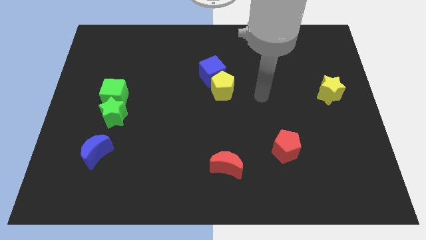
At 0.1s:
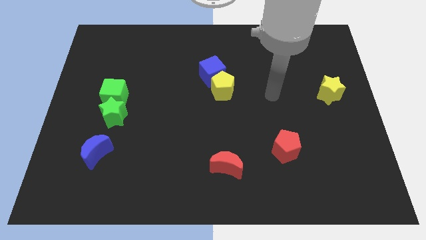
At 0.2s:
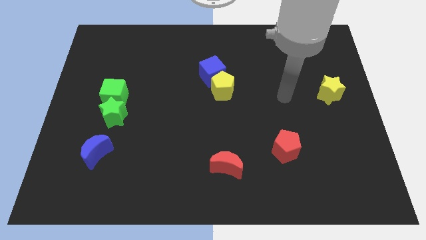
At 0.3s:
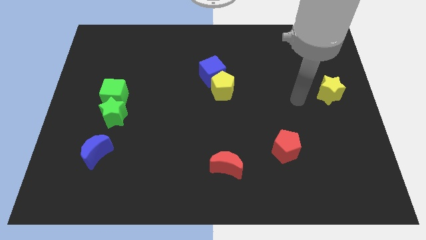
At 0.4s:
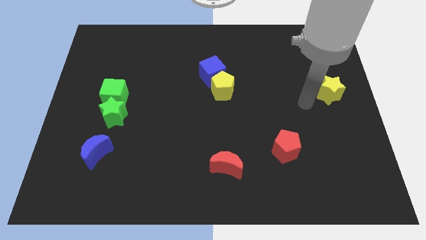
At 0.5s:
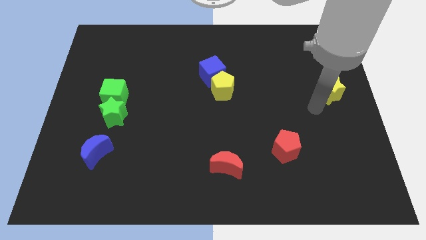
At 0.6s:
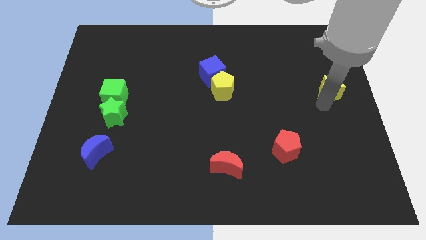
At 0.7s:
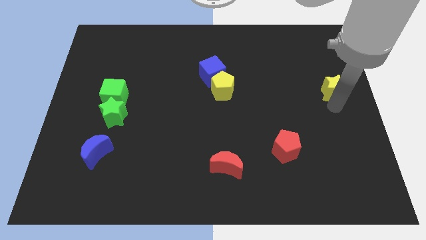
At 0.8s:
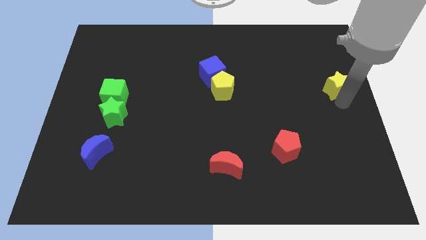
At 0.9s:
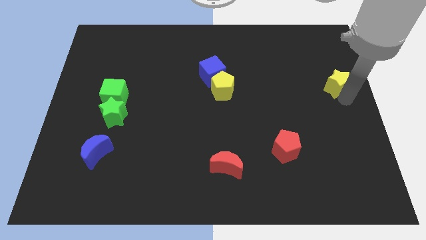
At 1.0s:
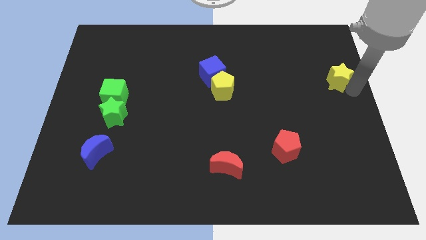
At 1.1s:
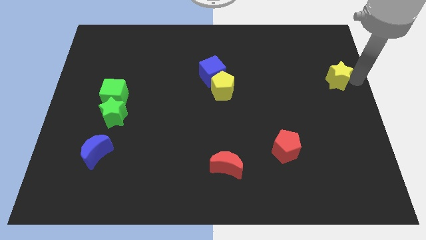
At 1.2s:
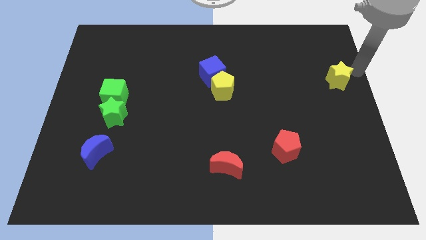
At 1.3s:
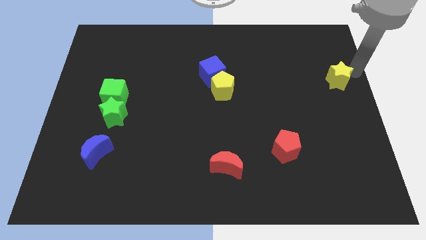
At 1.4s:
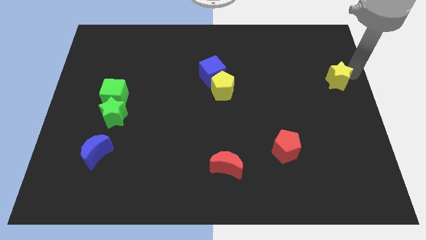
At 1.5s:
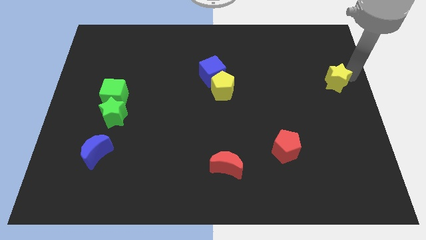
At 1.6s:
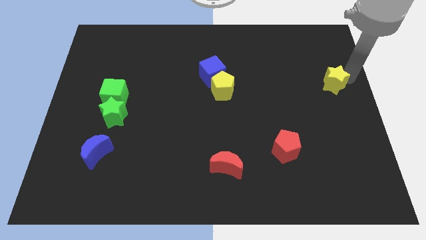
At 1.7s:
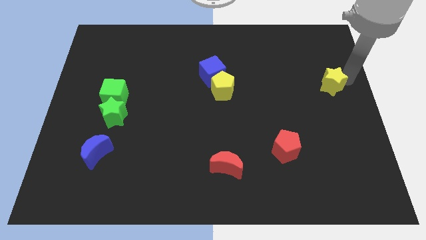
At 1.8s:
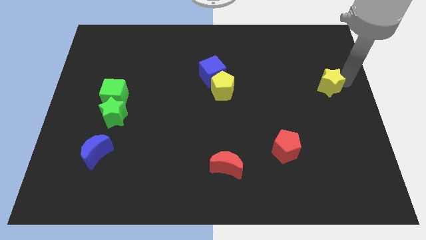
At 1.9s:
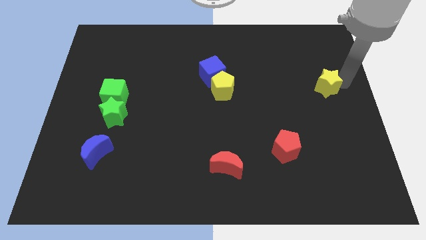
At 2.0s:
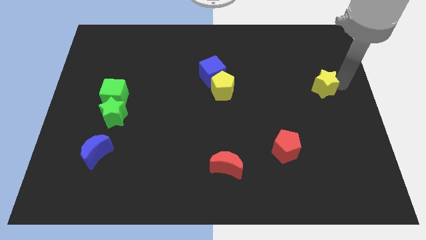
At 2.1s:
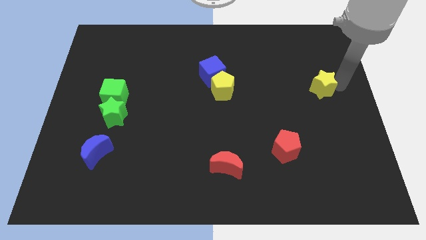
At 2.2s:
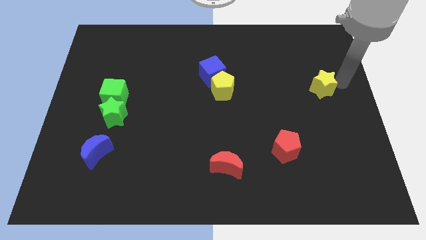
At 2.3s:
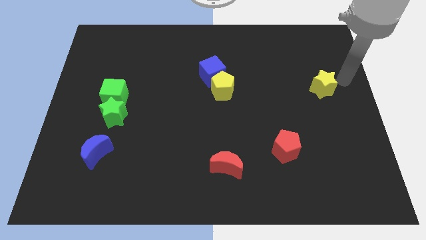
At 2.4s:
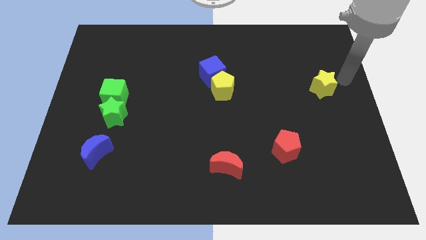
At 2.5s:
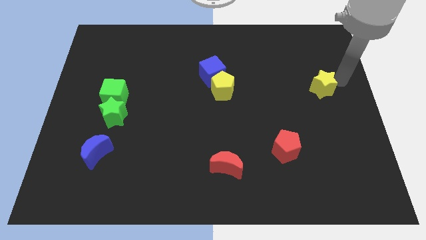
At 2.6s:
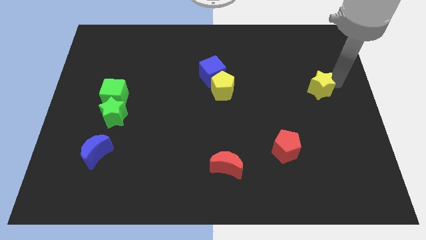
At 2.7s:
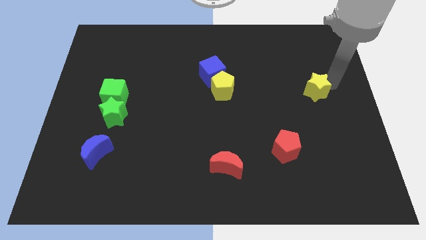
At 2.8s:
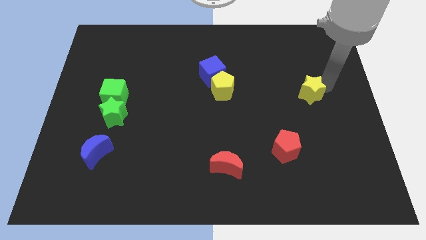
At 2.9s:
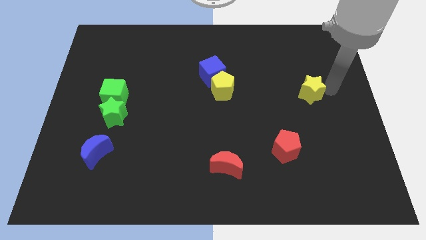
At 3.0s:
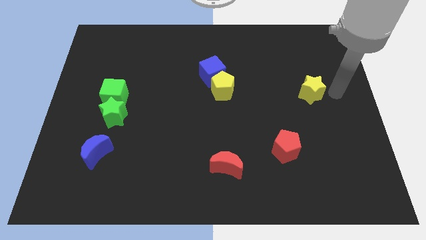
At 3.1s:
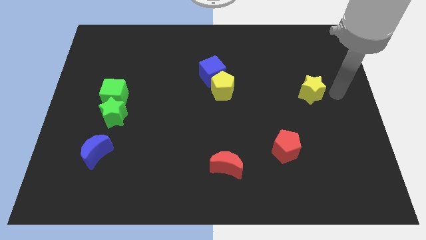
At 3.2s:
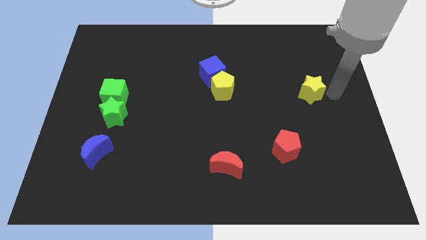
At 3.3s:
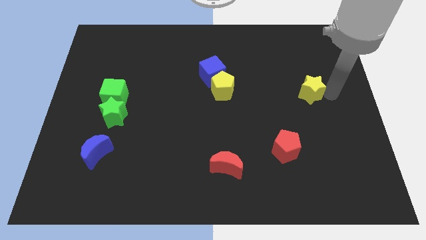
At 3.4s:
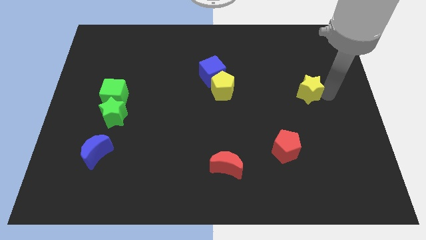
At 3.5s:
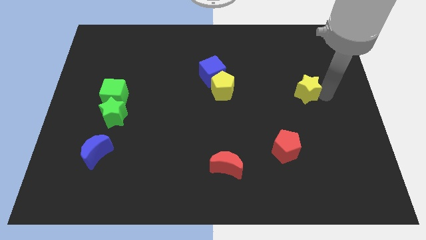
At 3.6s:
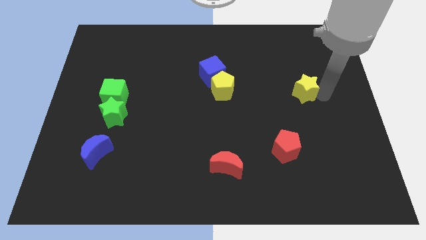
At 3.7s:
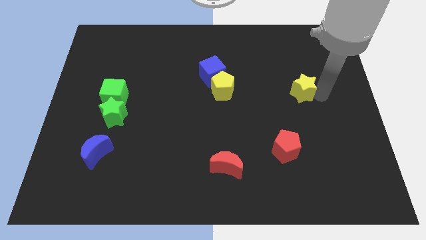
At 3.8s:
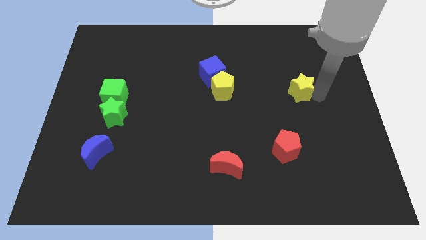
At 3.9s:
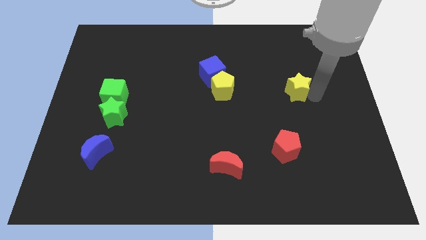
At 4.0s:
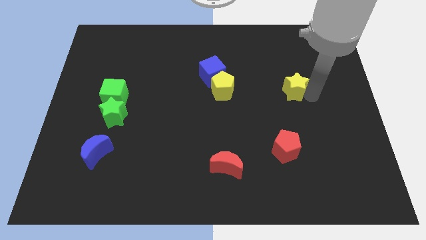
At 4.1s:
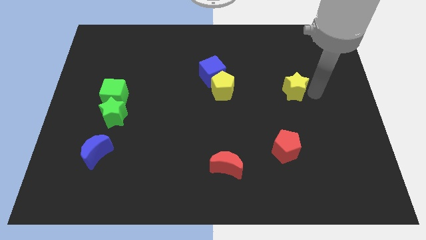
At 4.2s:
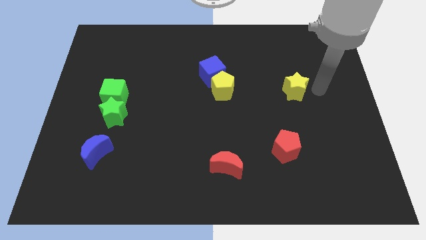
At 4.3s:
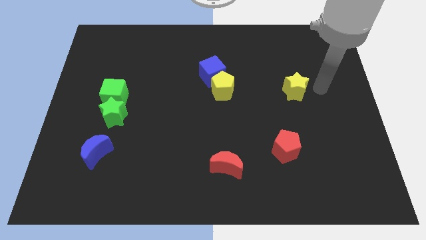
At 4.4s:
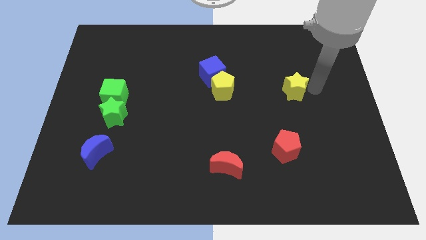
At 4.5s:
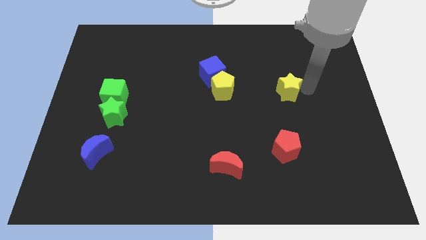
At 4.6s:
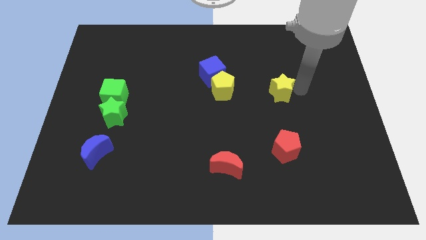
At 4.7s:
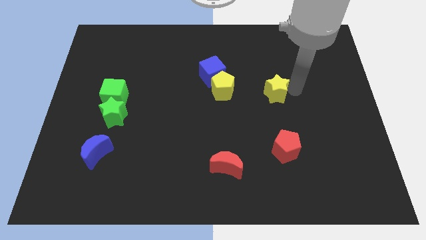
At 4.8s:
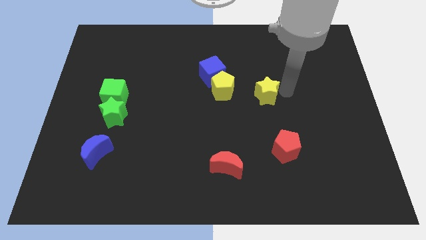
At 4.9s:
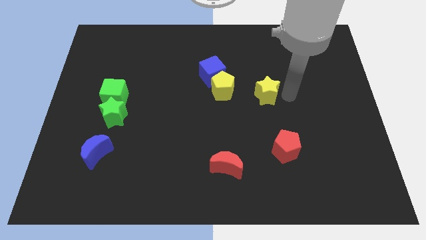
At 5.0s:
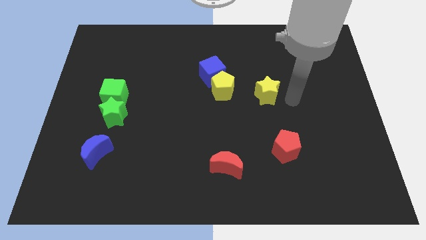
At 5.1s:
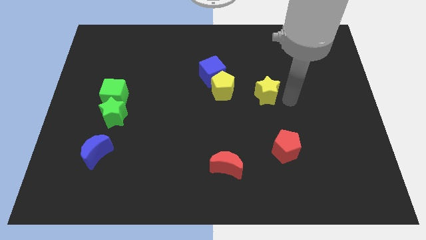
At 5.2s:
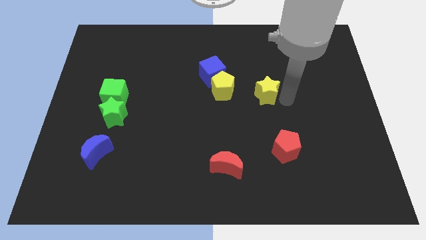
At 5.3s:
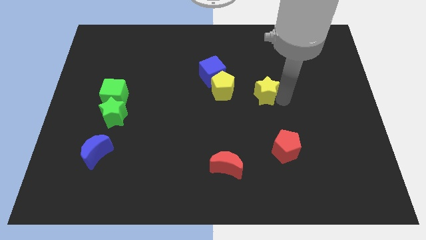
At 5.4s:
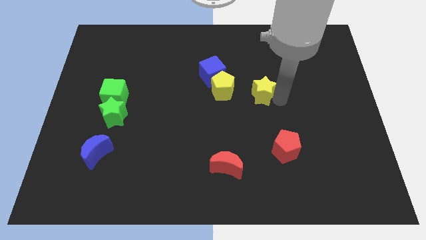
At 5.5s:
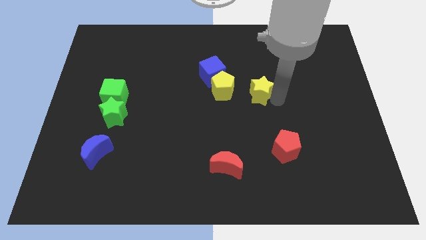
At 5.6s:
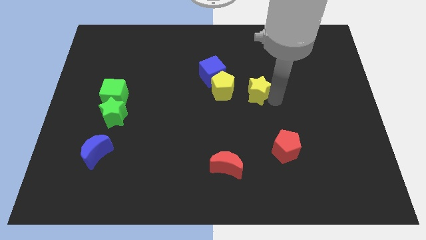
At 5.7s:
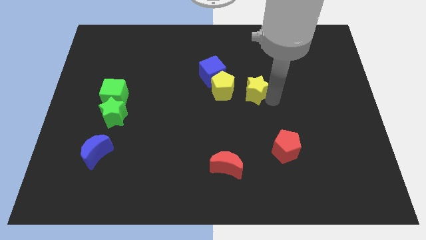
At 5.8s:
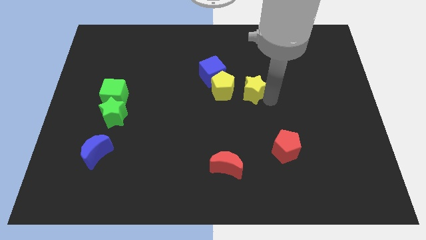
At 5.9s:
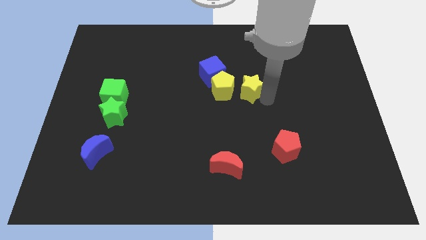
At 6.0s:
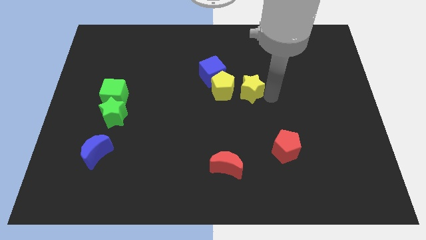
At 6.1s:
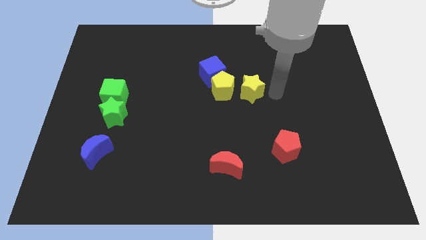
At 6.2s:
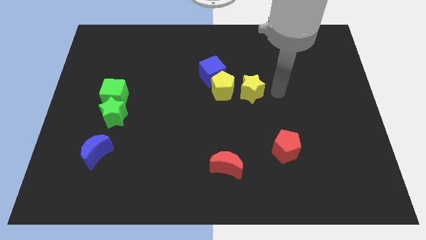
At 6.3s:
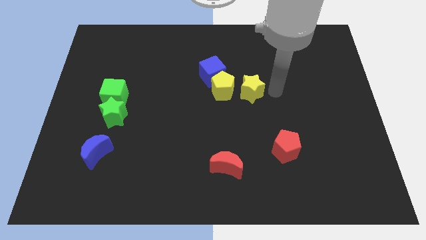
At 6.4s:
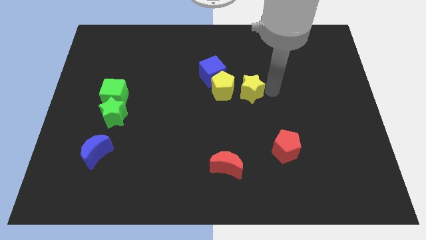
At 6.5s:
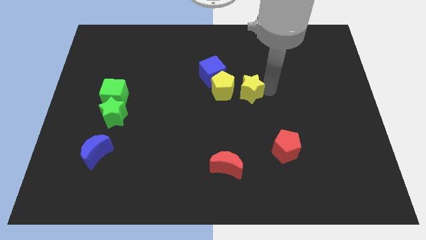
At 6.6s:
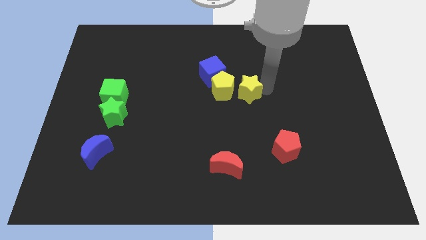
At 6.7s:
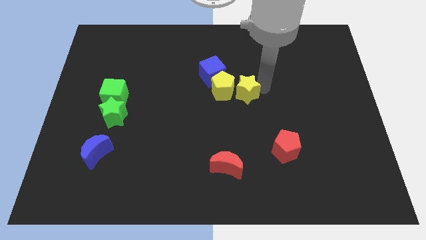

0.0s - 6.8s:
put the yellow star next to the yellow pentagon
